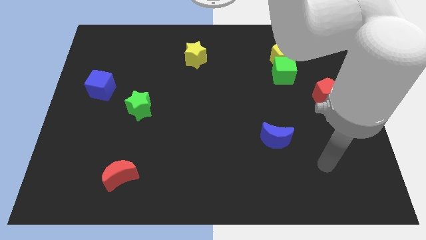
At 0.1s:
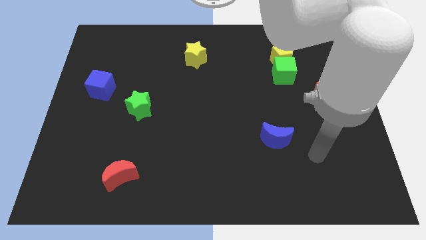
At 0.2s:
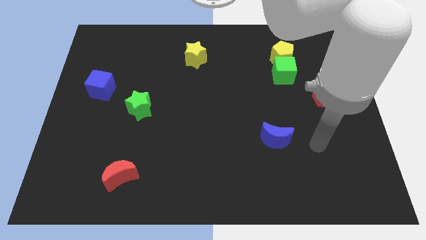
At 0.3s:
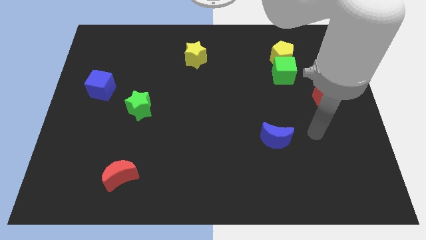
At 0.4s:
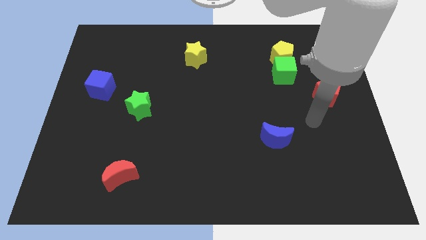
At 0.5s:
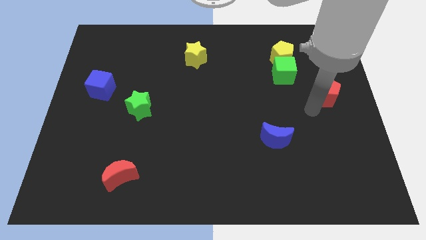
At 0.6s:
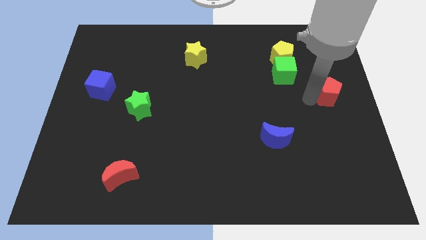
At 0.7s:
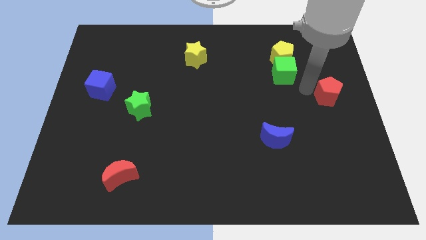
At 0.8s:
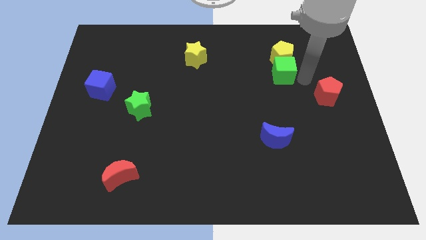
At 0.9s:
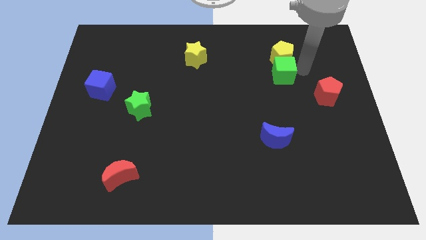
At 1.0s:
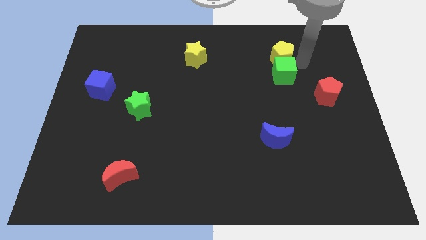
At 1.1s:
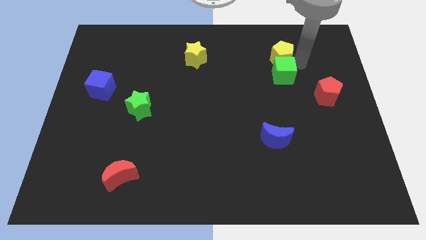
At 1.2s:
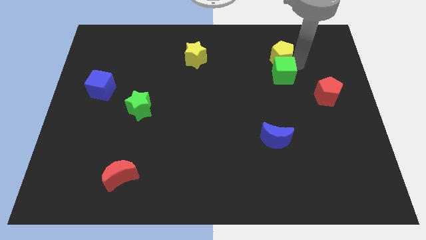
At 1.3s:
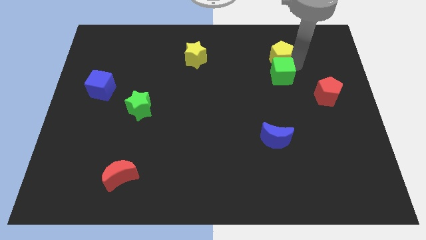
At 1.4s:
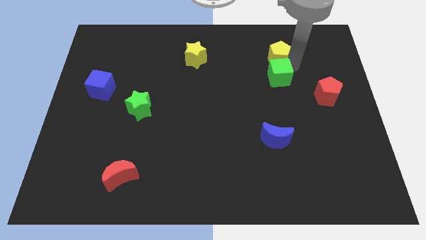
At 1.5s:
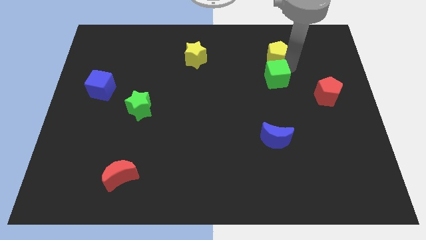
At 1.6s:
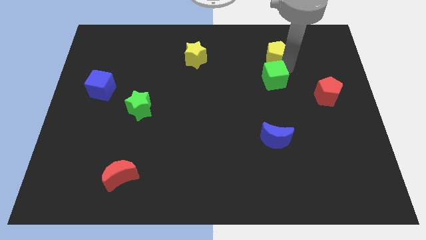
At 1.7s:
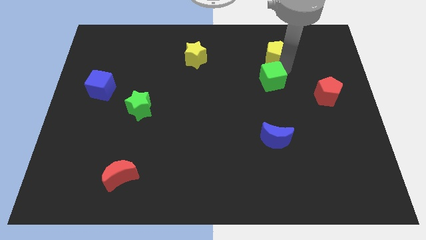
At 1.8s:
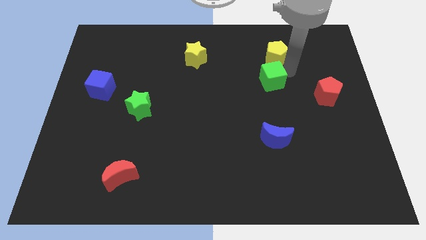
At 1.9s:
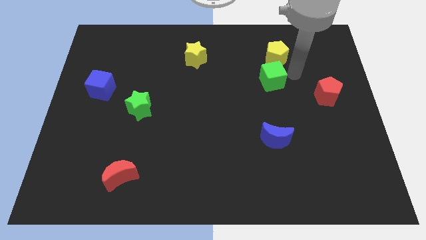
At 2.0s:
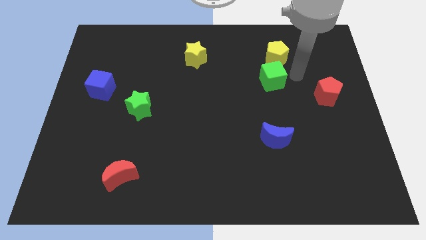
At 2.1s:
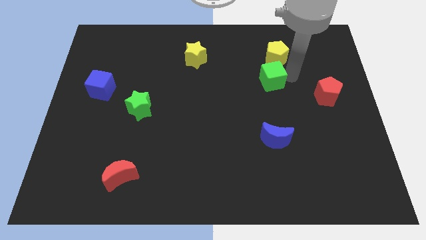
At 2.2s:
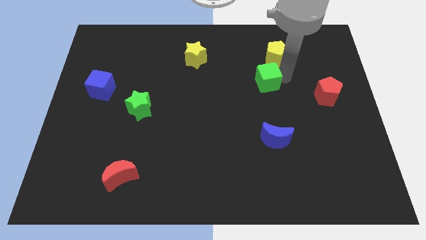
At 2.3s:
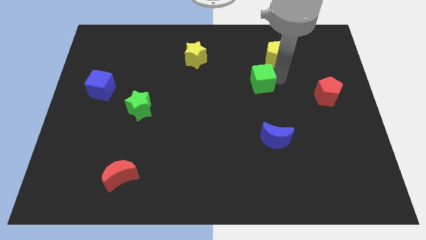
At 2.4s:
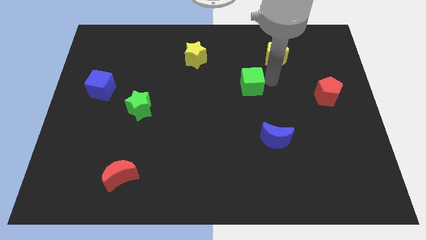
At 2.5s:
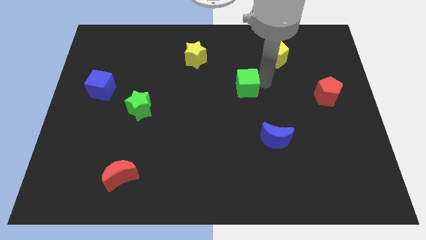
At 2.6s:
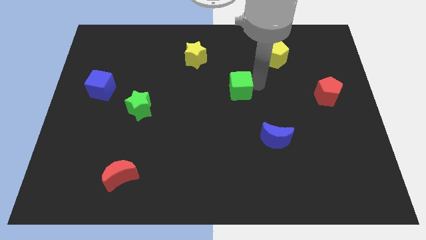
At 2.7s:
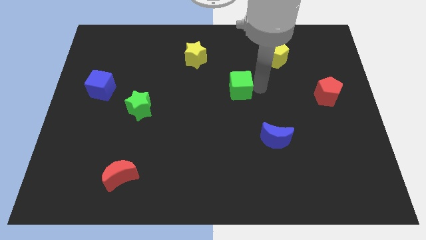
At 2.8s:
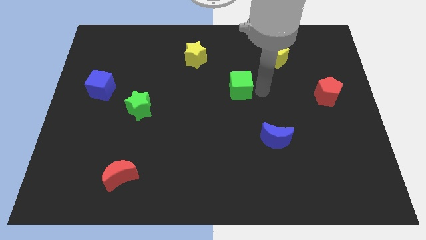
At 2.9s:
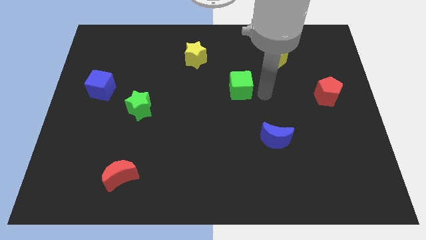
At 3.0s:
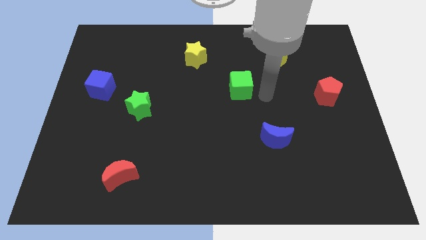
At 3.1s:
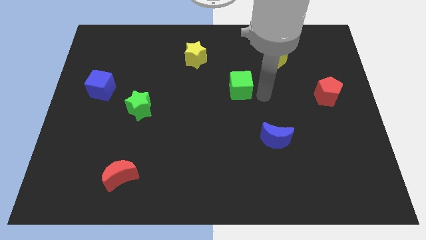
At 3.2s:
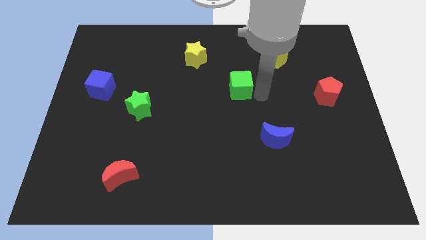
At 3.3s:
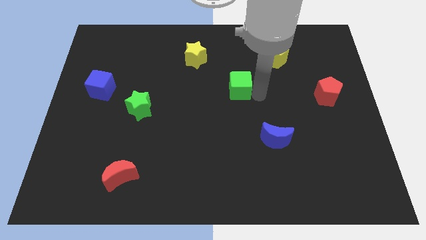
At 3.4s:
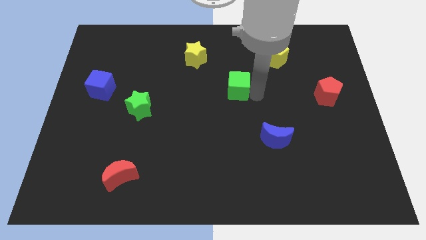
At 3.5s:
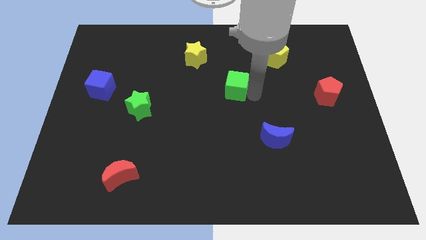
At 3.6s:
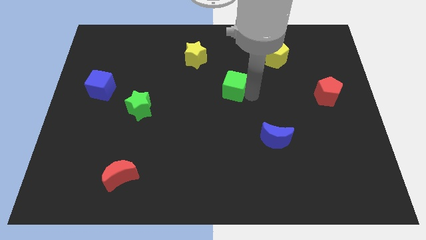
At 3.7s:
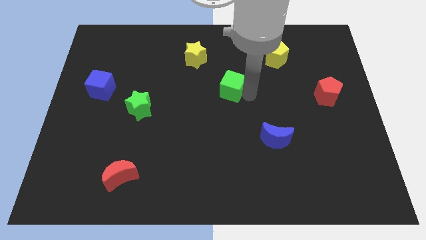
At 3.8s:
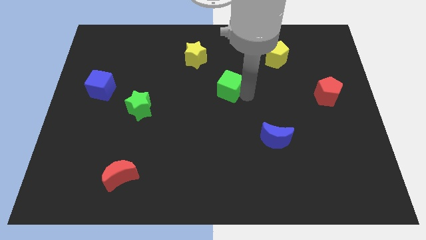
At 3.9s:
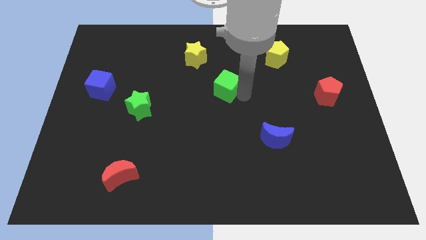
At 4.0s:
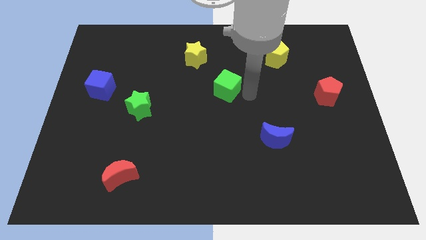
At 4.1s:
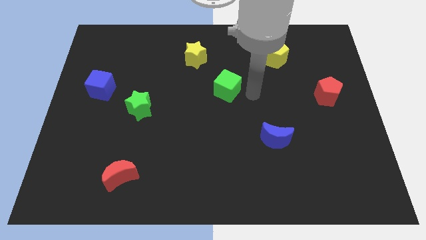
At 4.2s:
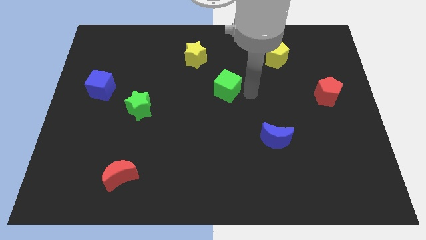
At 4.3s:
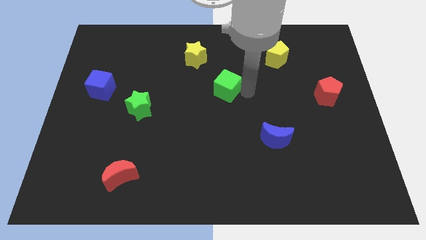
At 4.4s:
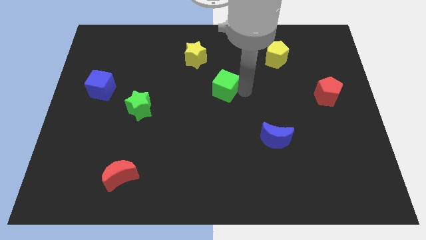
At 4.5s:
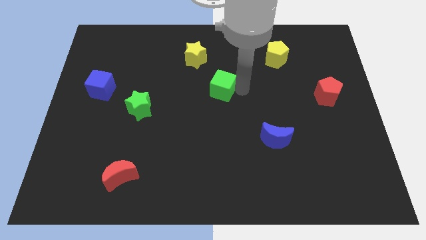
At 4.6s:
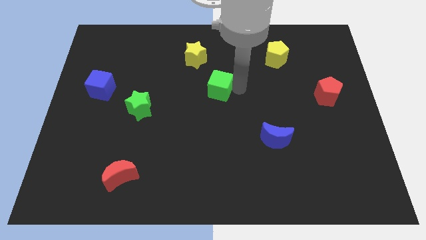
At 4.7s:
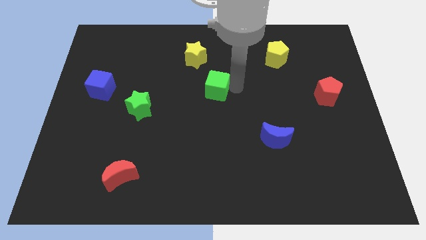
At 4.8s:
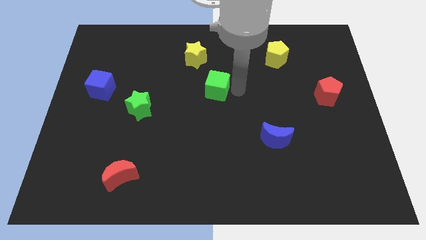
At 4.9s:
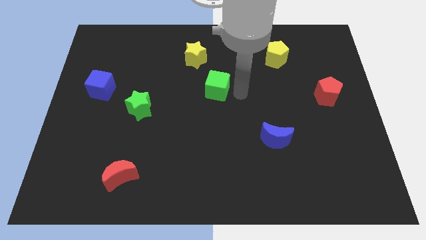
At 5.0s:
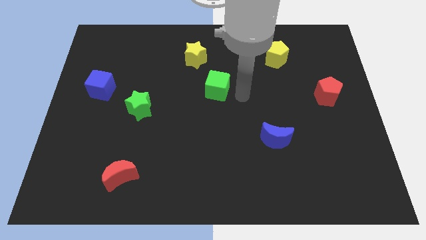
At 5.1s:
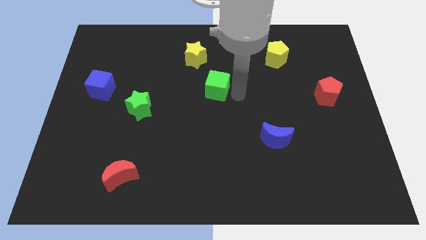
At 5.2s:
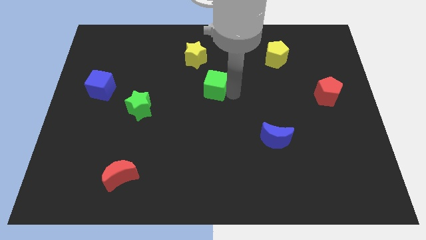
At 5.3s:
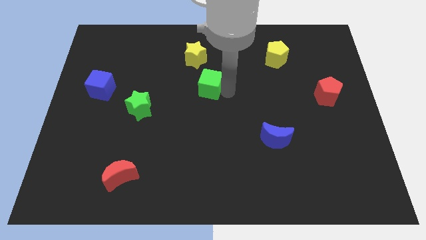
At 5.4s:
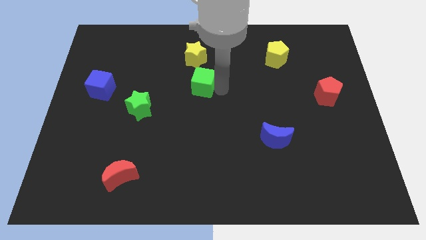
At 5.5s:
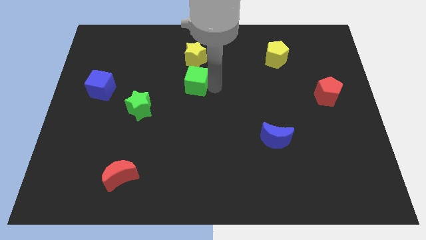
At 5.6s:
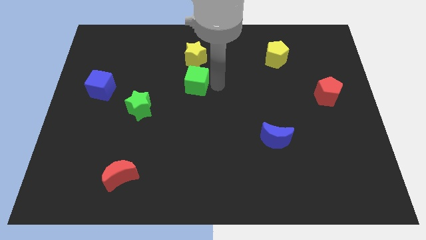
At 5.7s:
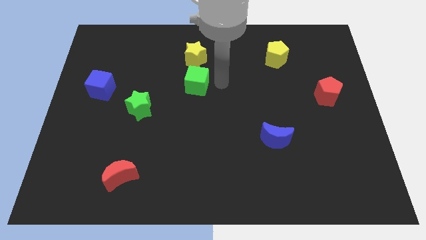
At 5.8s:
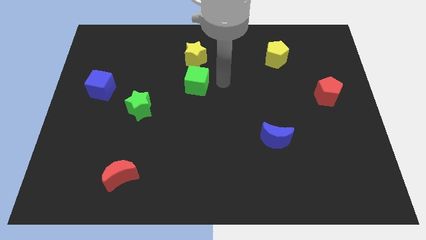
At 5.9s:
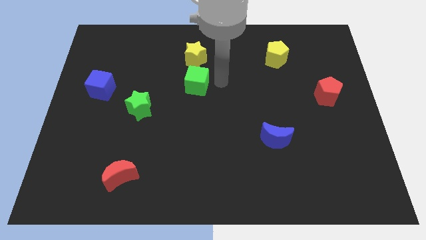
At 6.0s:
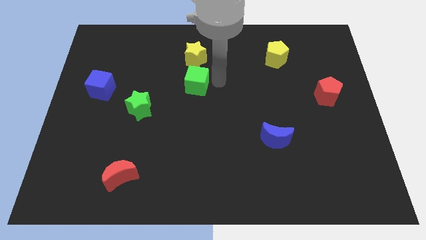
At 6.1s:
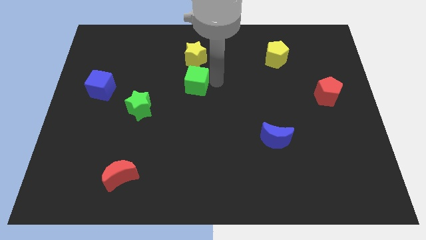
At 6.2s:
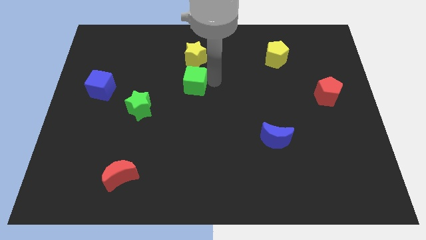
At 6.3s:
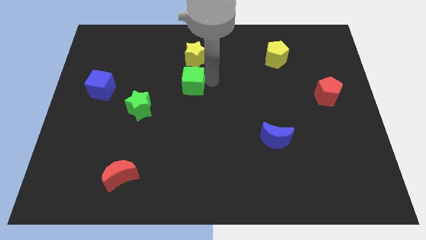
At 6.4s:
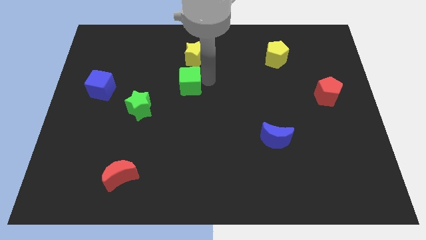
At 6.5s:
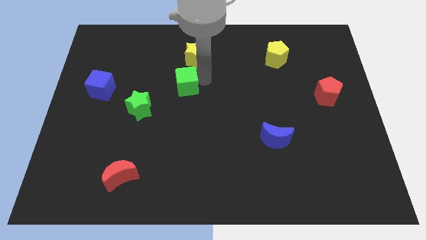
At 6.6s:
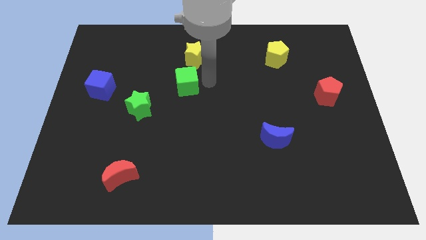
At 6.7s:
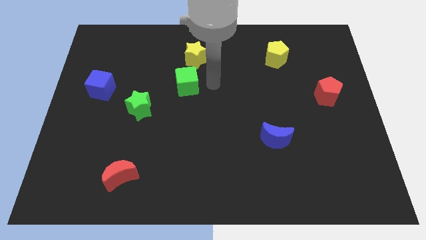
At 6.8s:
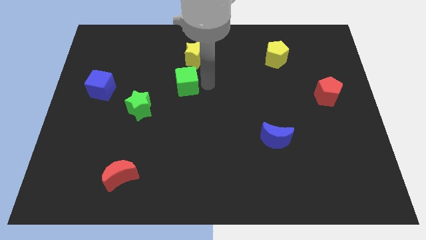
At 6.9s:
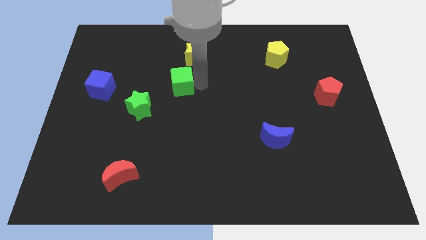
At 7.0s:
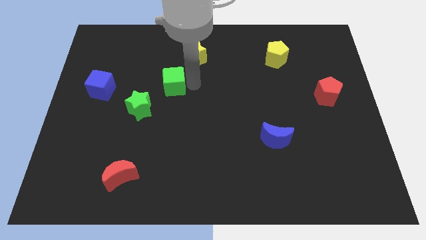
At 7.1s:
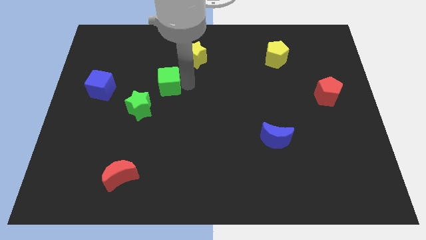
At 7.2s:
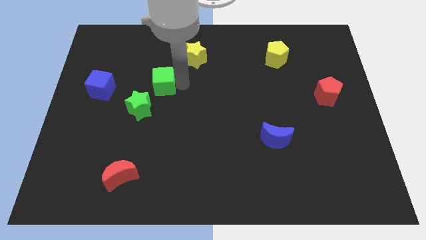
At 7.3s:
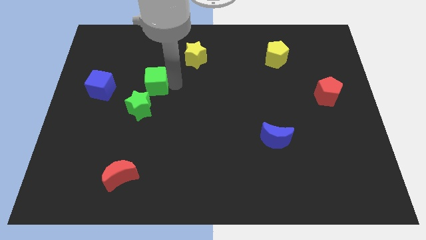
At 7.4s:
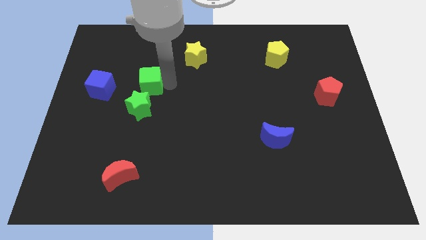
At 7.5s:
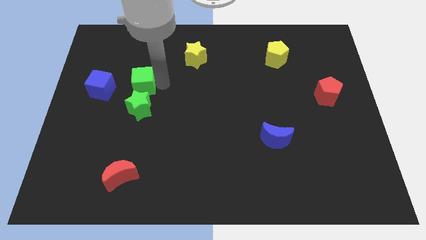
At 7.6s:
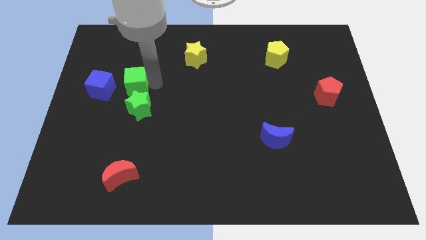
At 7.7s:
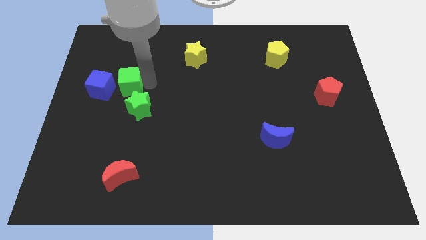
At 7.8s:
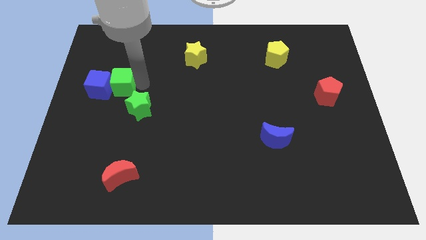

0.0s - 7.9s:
slide the green cube towards the blue cube
